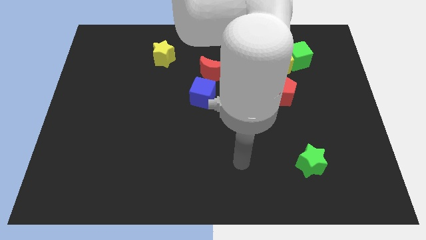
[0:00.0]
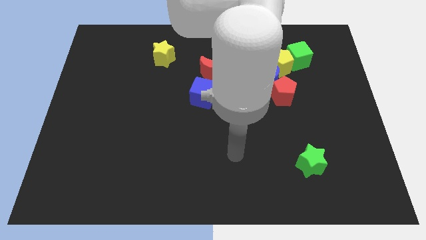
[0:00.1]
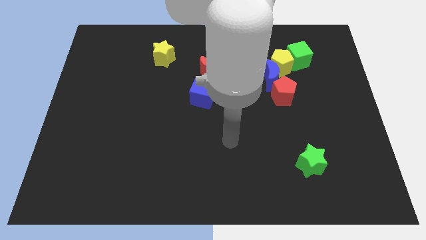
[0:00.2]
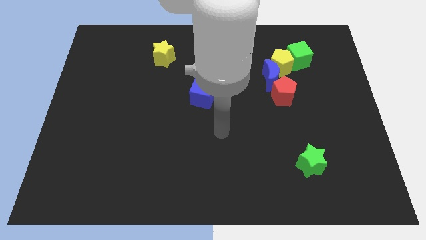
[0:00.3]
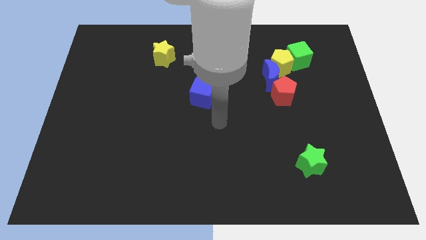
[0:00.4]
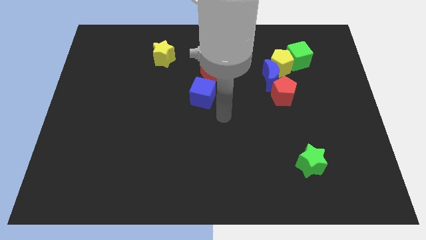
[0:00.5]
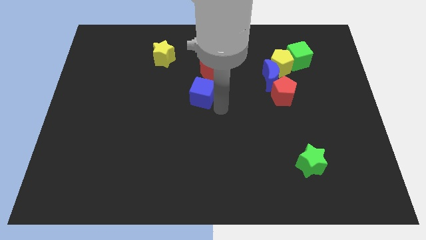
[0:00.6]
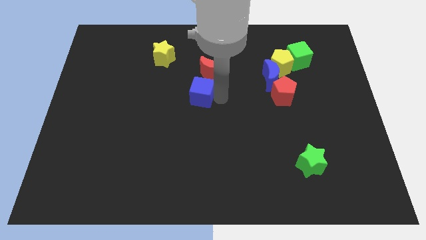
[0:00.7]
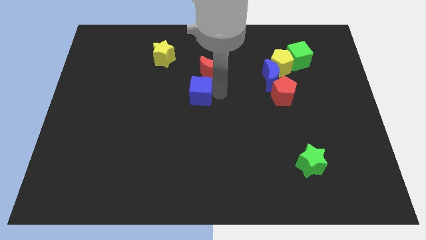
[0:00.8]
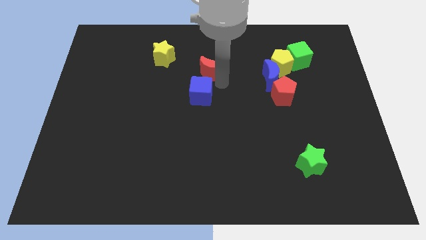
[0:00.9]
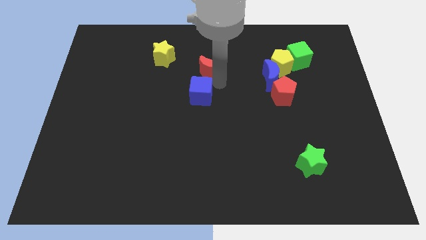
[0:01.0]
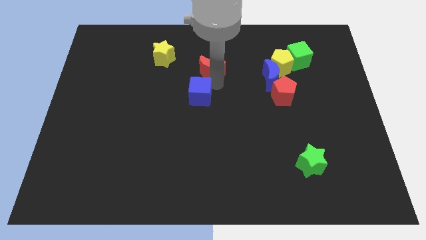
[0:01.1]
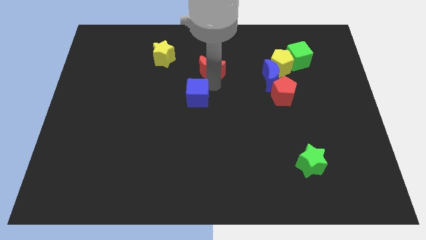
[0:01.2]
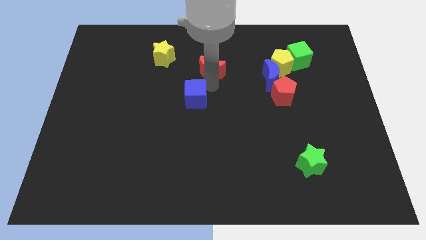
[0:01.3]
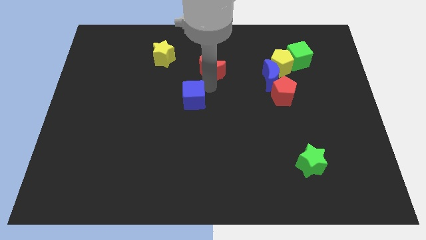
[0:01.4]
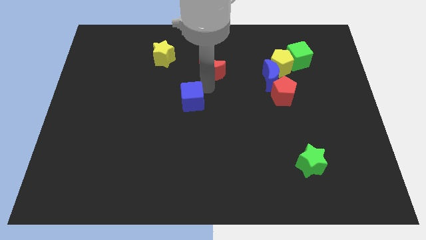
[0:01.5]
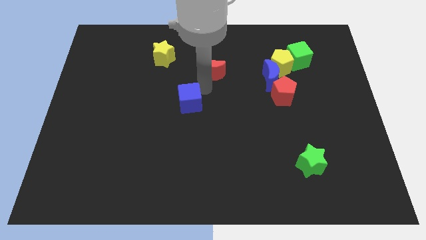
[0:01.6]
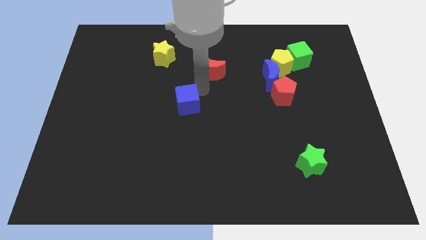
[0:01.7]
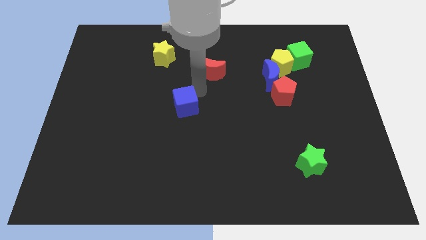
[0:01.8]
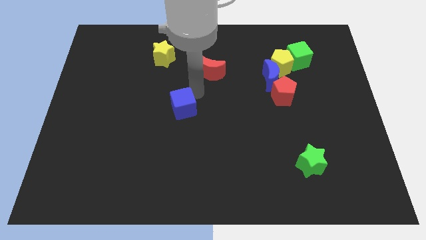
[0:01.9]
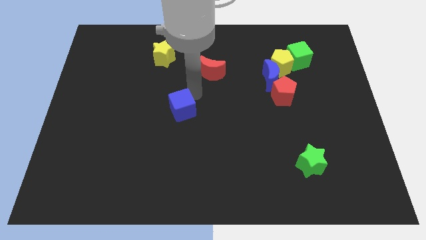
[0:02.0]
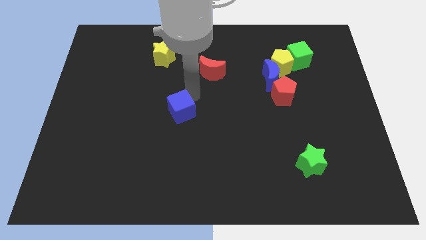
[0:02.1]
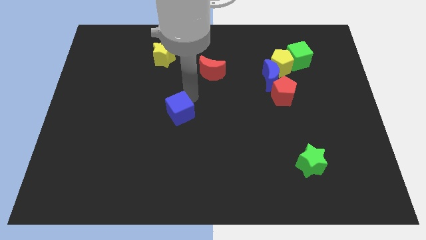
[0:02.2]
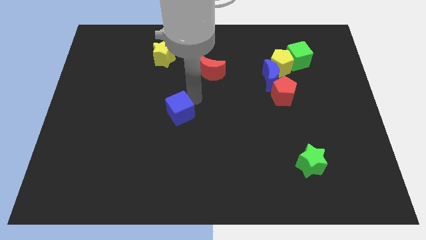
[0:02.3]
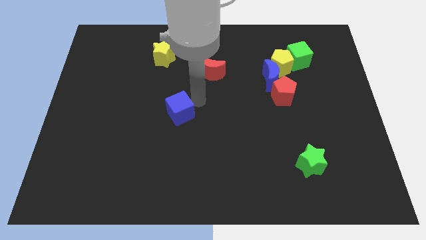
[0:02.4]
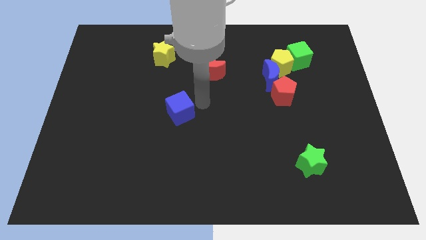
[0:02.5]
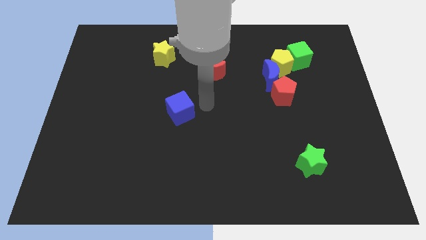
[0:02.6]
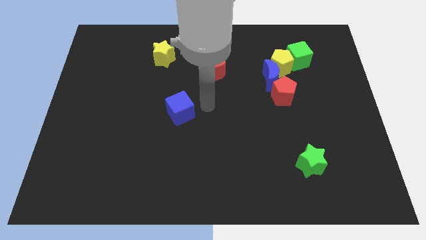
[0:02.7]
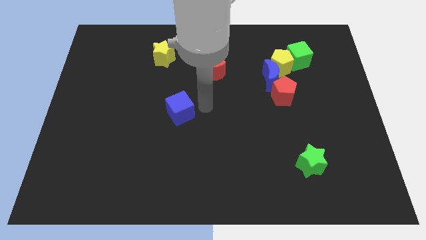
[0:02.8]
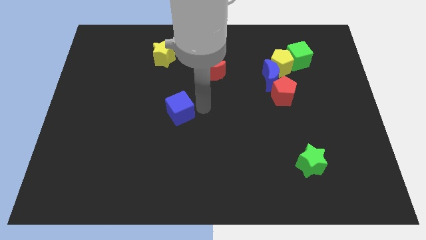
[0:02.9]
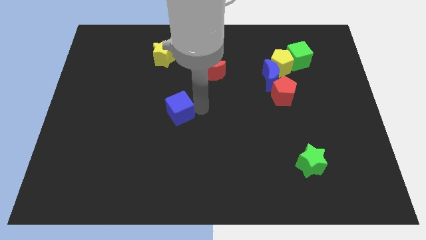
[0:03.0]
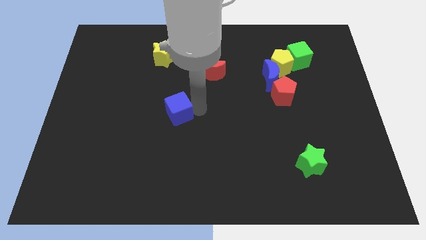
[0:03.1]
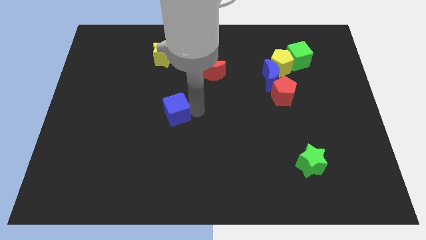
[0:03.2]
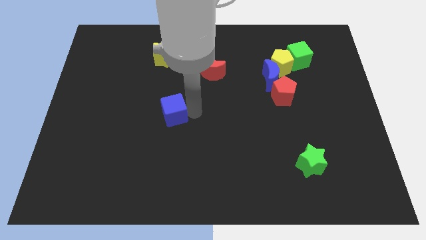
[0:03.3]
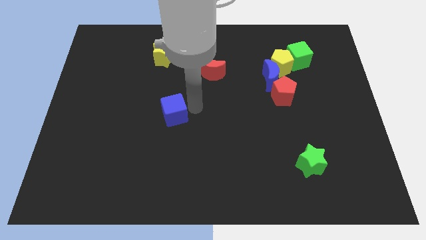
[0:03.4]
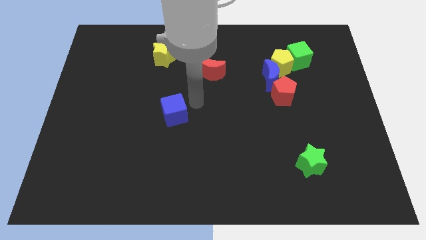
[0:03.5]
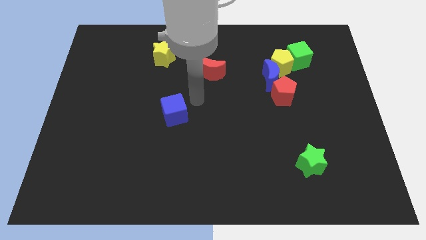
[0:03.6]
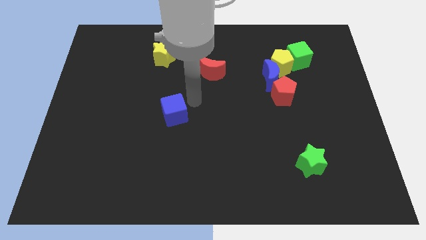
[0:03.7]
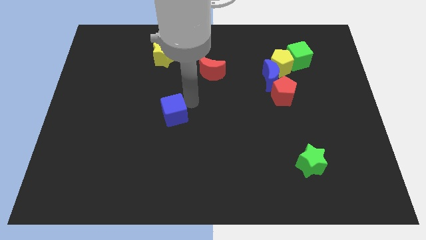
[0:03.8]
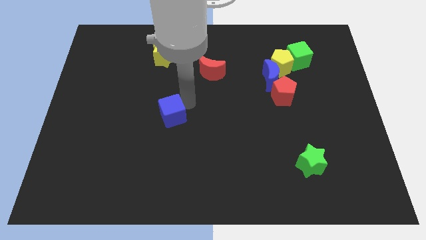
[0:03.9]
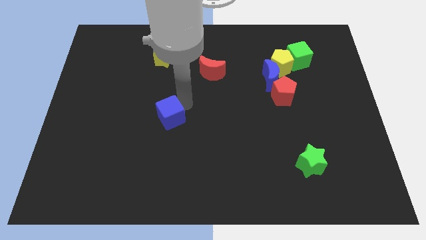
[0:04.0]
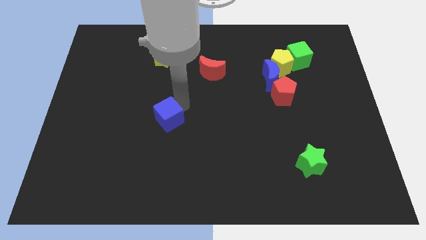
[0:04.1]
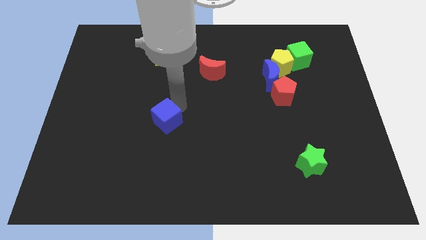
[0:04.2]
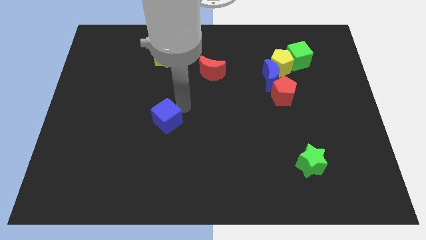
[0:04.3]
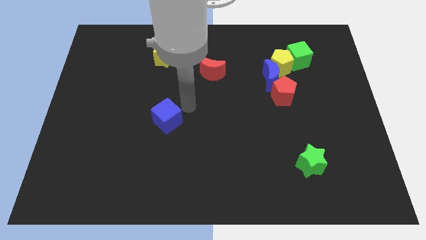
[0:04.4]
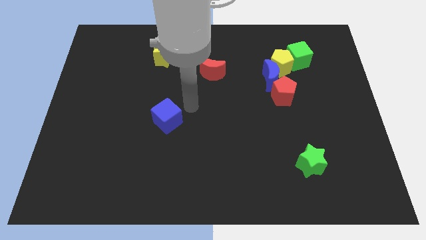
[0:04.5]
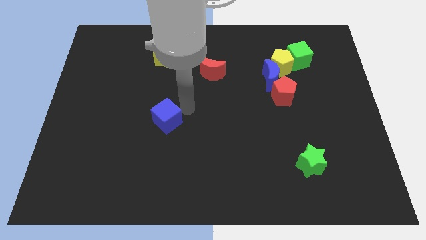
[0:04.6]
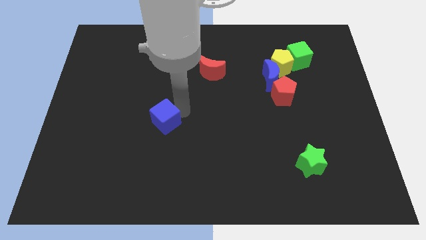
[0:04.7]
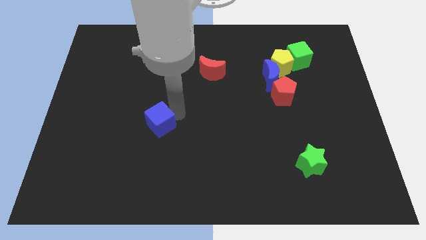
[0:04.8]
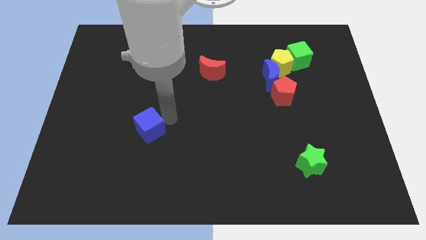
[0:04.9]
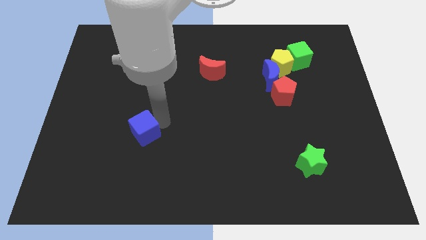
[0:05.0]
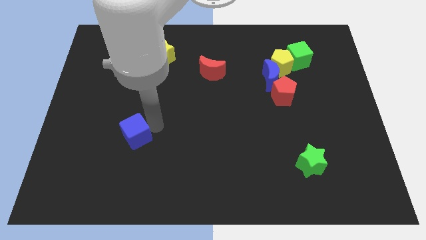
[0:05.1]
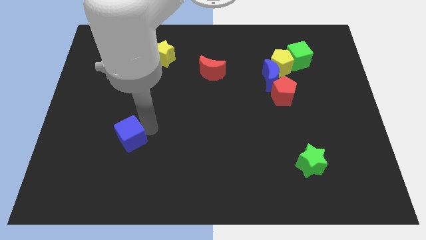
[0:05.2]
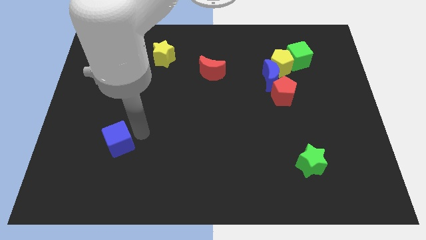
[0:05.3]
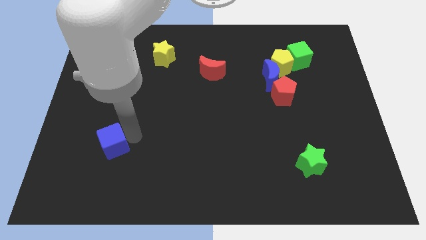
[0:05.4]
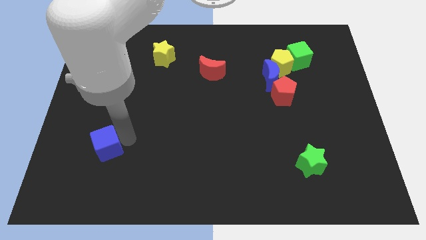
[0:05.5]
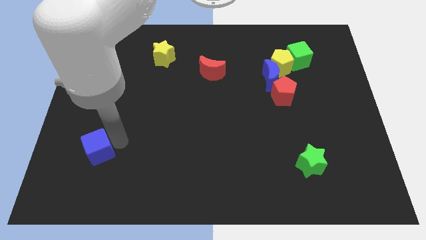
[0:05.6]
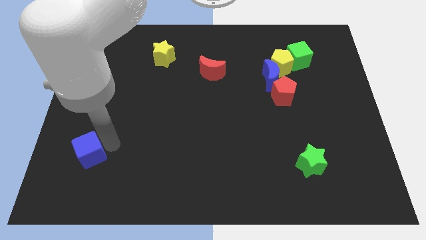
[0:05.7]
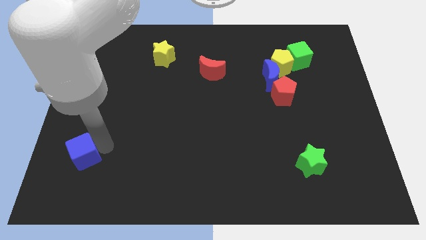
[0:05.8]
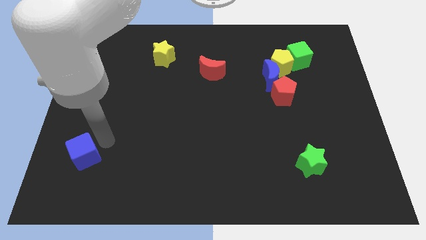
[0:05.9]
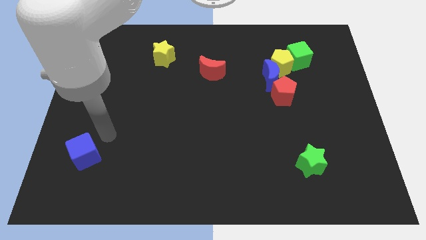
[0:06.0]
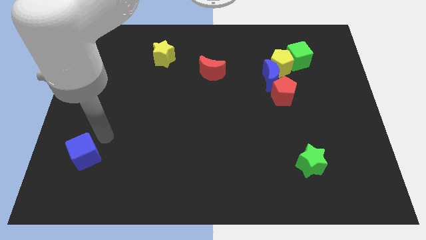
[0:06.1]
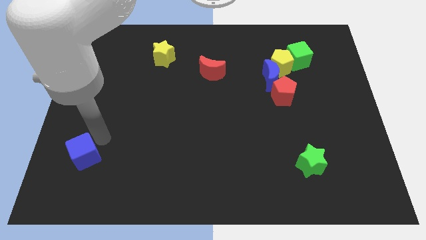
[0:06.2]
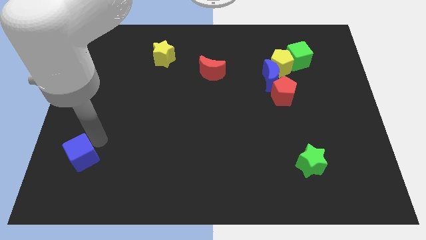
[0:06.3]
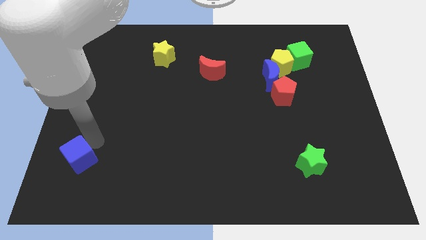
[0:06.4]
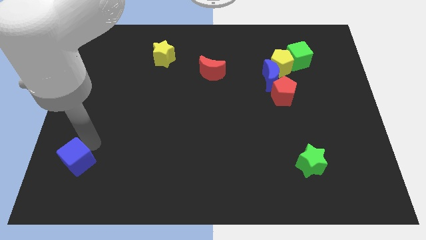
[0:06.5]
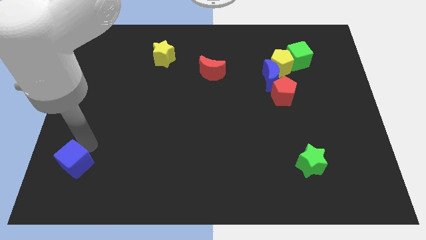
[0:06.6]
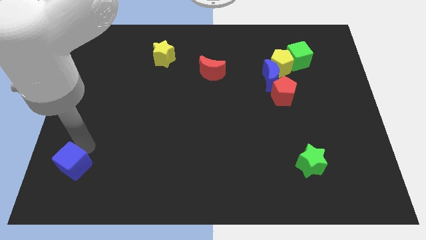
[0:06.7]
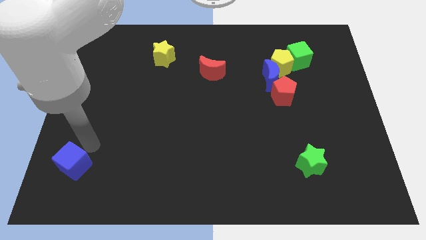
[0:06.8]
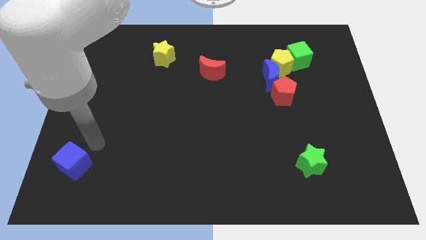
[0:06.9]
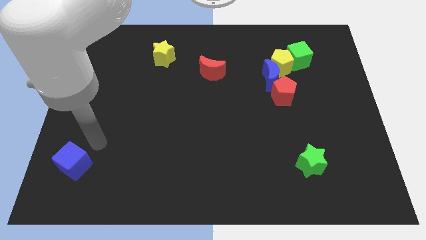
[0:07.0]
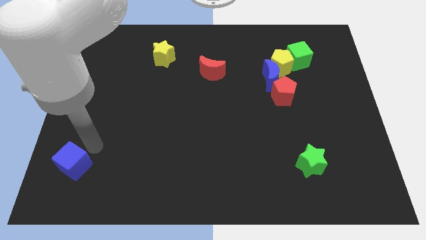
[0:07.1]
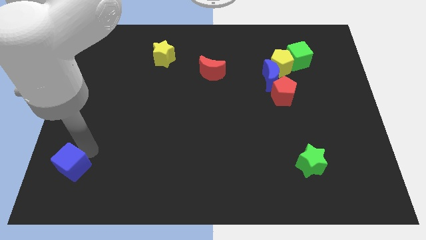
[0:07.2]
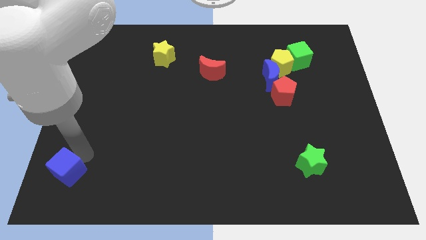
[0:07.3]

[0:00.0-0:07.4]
put the blue cube to the bottom left corner
